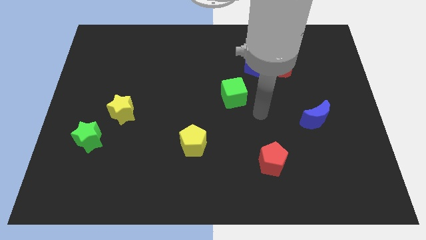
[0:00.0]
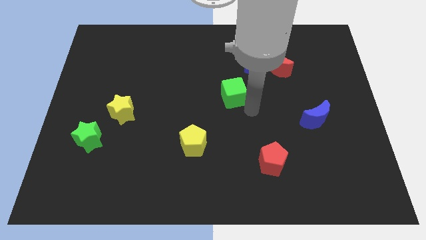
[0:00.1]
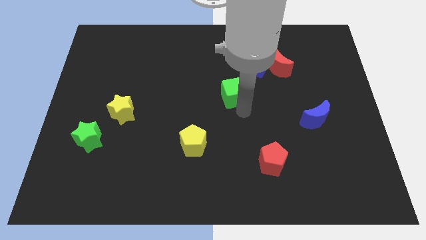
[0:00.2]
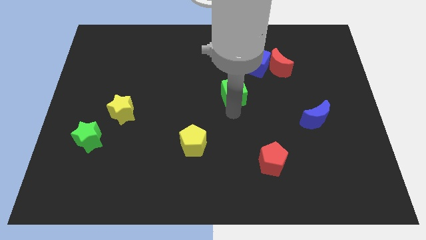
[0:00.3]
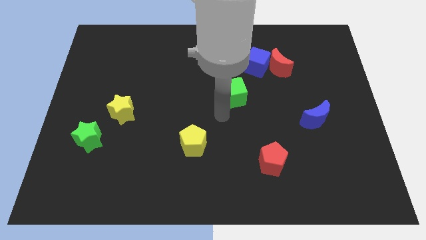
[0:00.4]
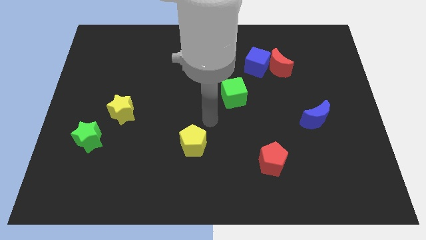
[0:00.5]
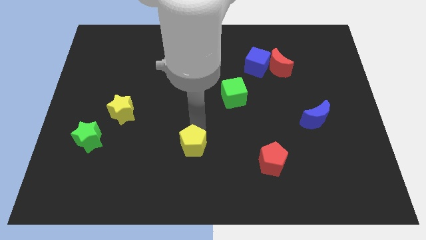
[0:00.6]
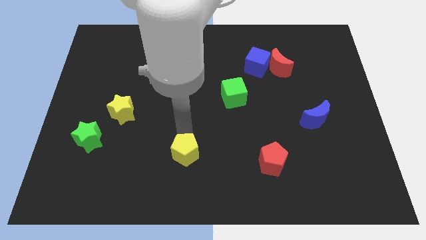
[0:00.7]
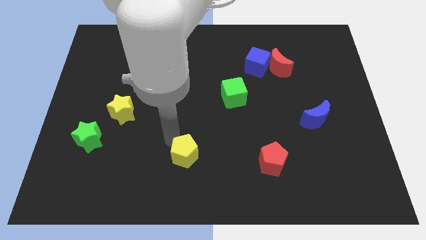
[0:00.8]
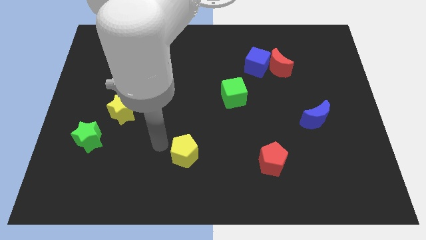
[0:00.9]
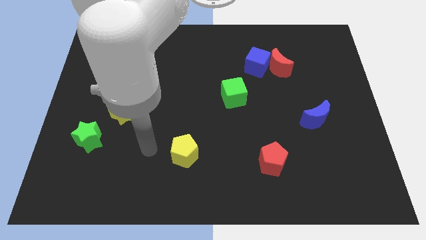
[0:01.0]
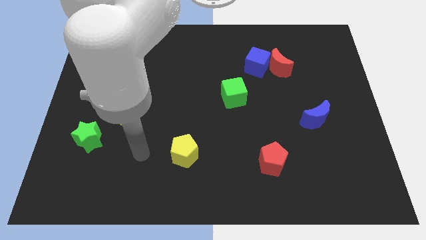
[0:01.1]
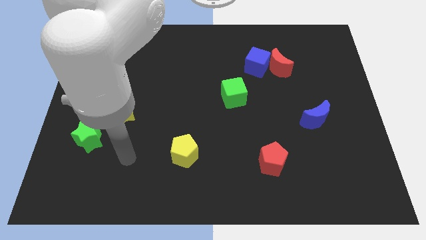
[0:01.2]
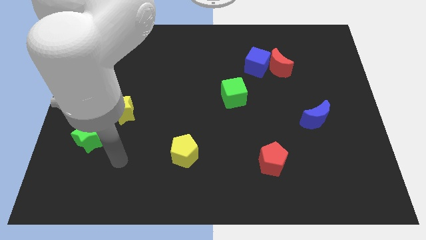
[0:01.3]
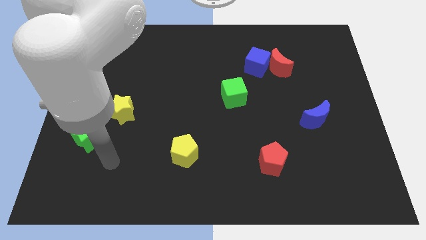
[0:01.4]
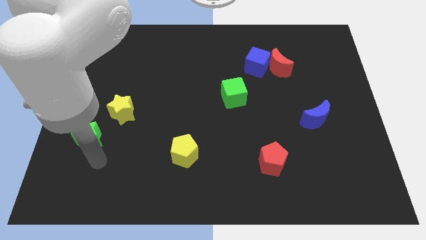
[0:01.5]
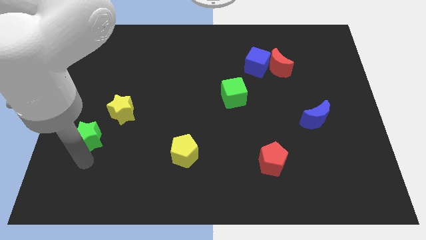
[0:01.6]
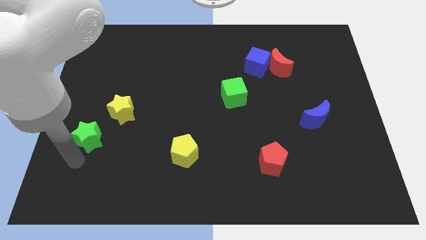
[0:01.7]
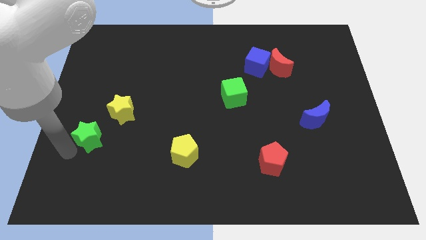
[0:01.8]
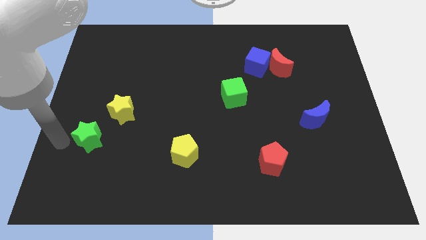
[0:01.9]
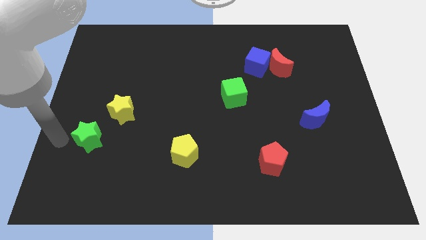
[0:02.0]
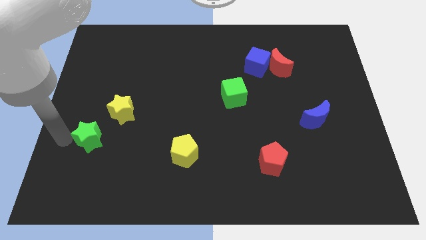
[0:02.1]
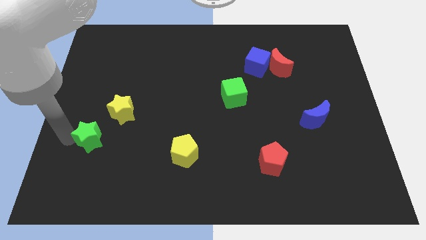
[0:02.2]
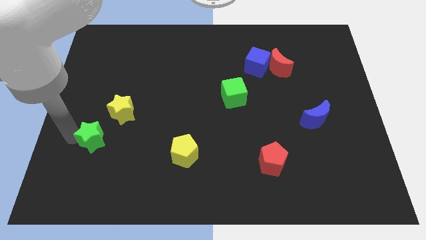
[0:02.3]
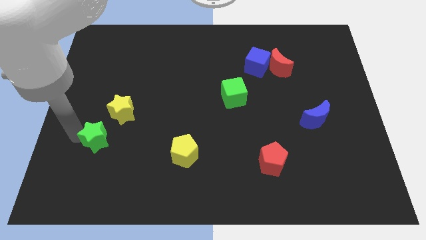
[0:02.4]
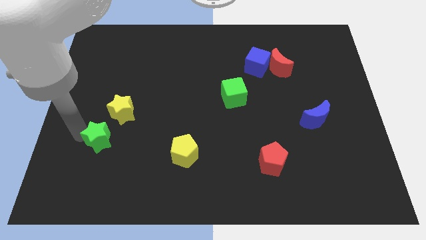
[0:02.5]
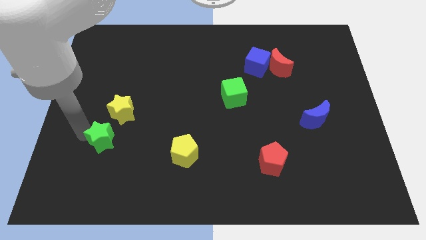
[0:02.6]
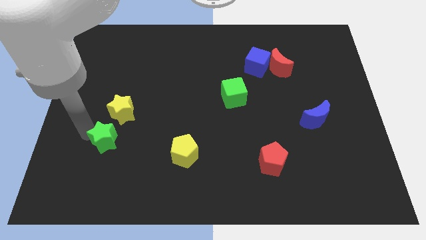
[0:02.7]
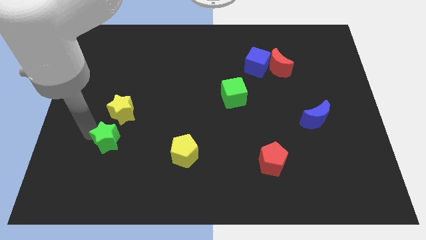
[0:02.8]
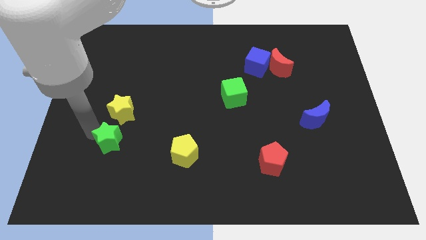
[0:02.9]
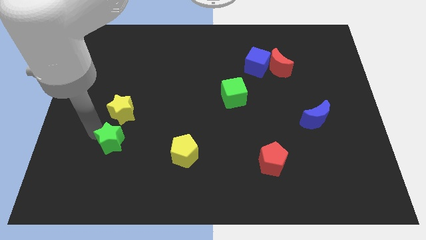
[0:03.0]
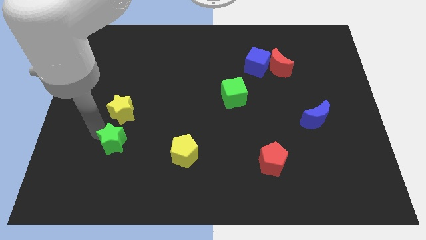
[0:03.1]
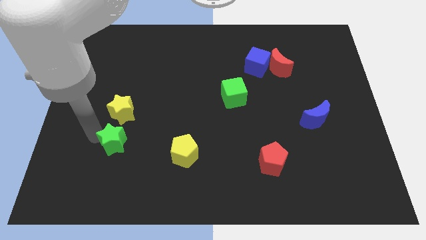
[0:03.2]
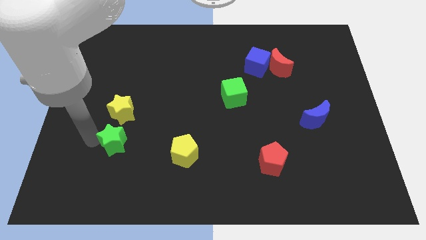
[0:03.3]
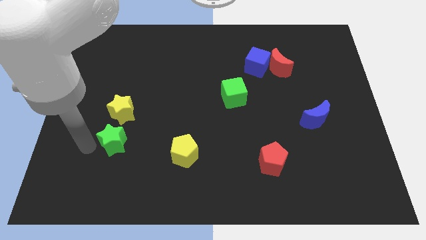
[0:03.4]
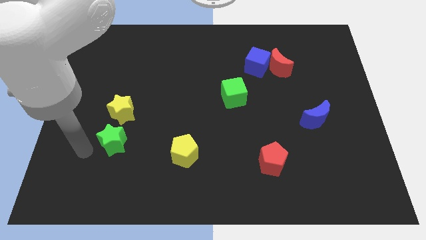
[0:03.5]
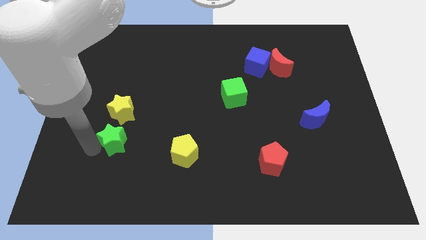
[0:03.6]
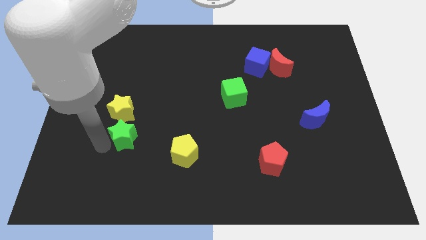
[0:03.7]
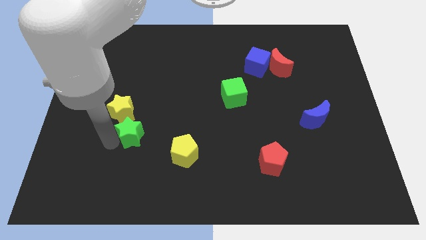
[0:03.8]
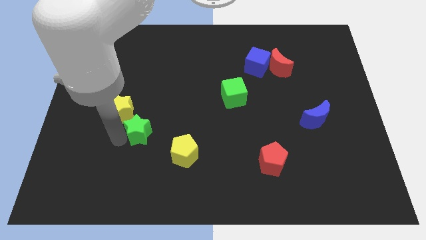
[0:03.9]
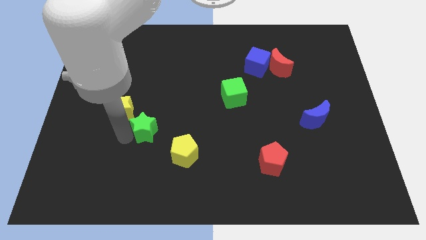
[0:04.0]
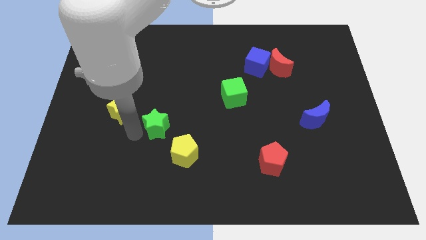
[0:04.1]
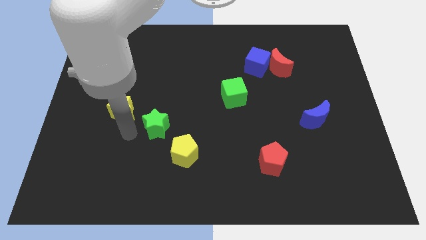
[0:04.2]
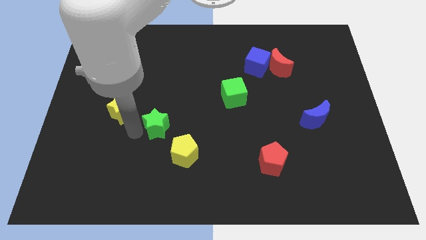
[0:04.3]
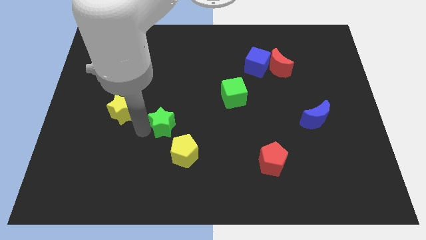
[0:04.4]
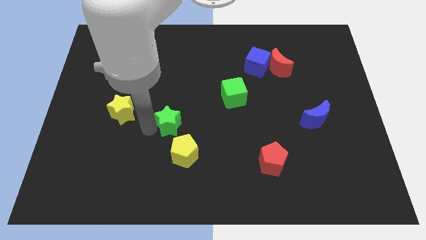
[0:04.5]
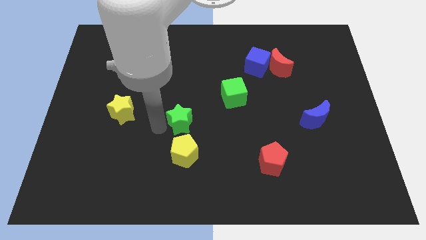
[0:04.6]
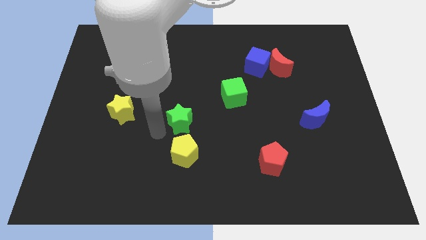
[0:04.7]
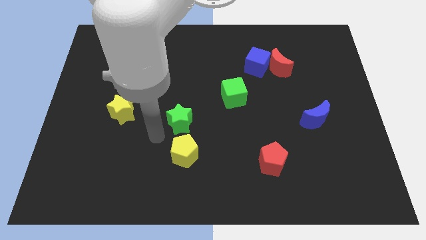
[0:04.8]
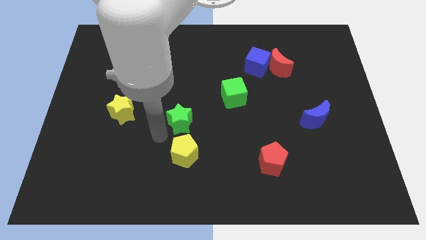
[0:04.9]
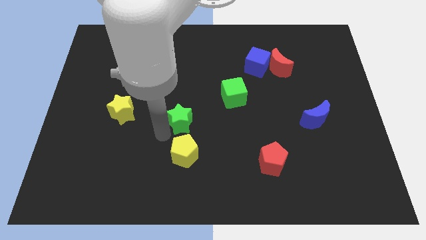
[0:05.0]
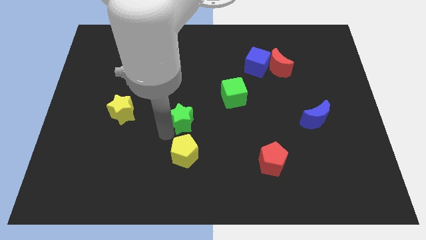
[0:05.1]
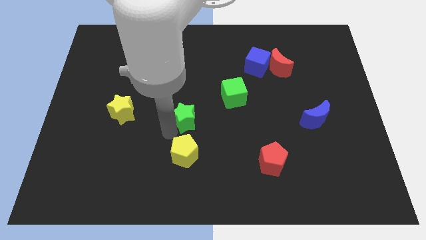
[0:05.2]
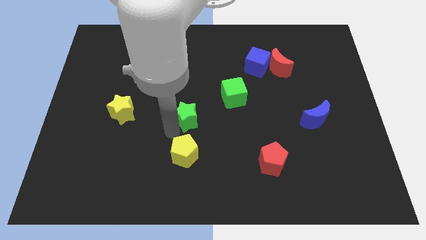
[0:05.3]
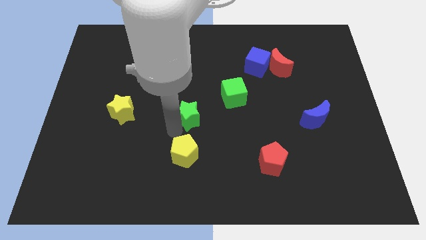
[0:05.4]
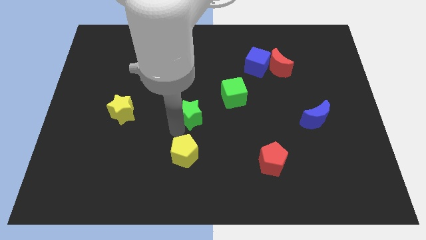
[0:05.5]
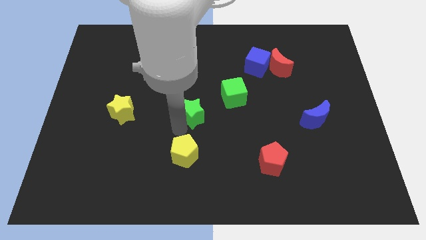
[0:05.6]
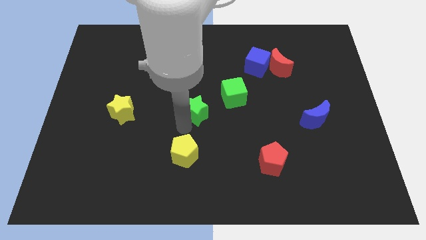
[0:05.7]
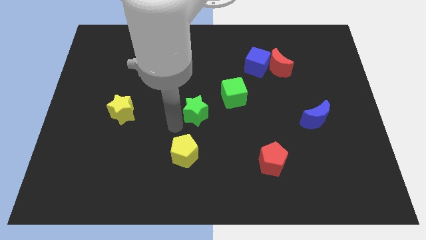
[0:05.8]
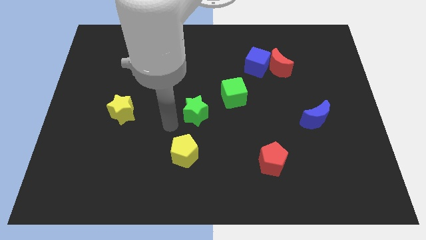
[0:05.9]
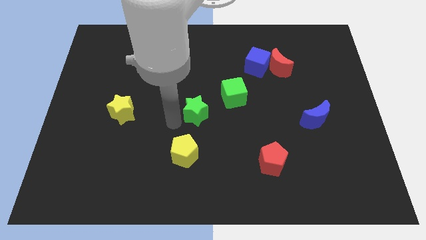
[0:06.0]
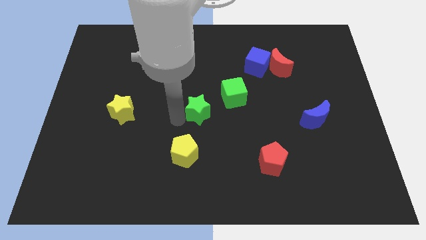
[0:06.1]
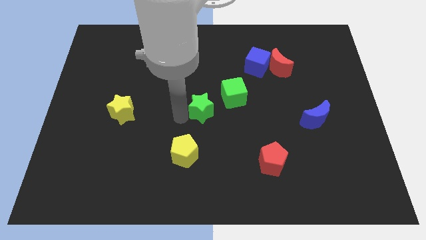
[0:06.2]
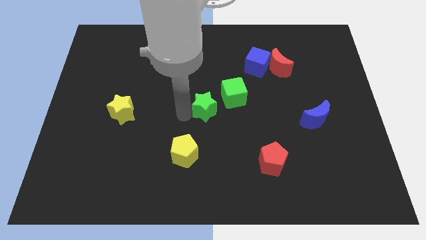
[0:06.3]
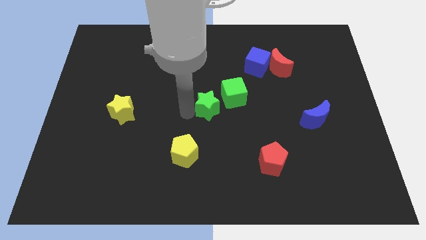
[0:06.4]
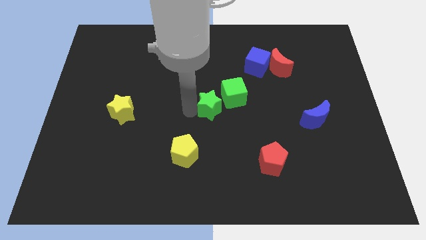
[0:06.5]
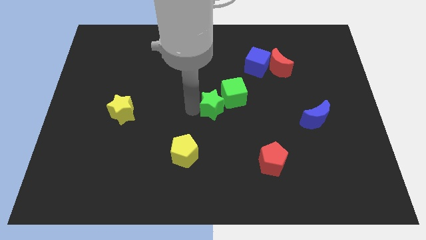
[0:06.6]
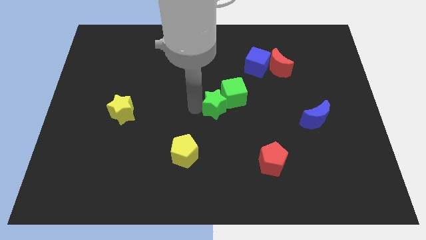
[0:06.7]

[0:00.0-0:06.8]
move the green star to the green cube
